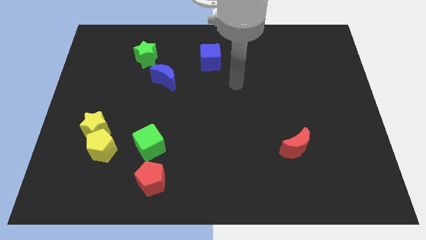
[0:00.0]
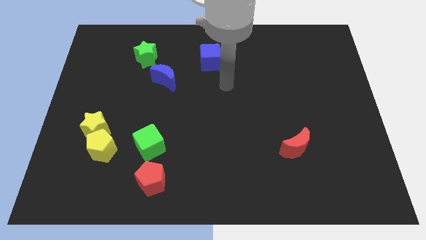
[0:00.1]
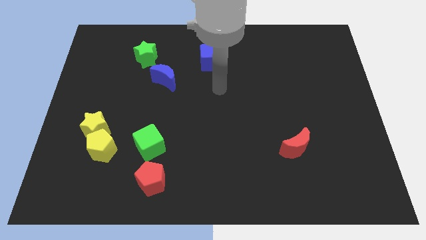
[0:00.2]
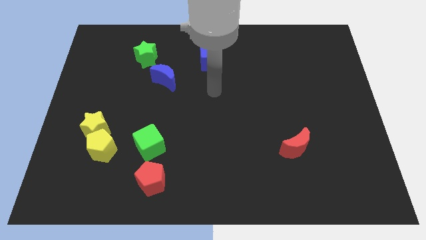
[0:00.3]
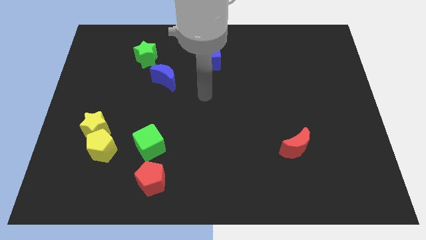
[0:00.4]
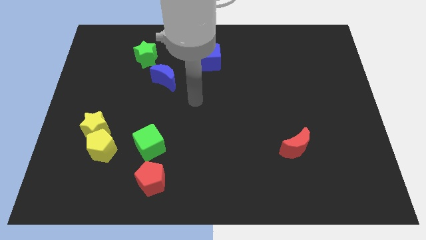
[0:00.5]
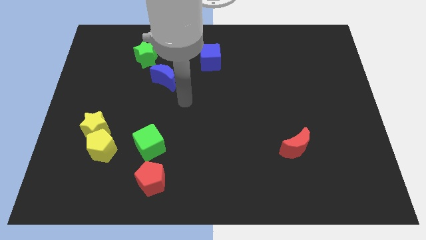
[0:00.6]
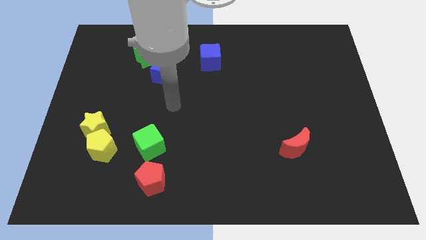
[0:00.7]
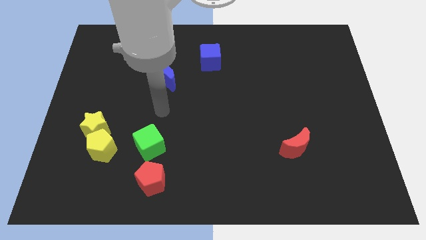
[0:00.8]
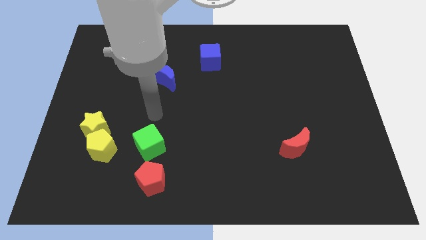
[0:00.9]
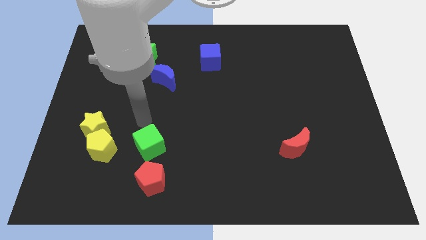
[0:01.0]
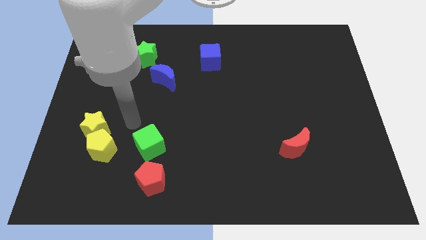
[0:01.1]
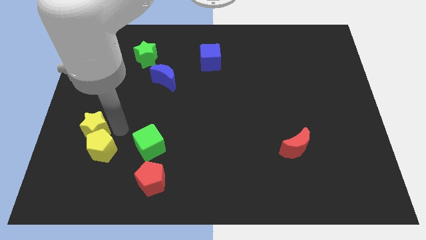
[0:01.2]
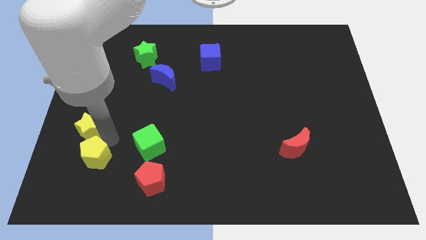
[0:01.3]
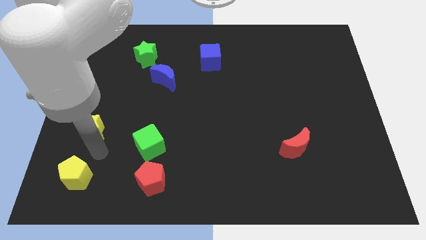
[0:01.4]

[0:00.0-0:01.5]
pull the yellow star apart from the yellow pentagon

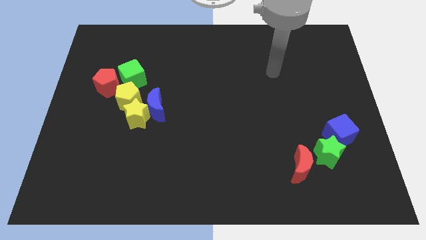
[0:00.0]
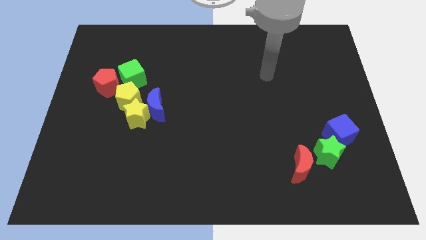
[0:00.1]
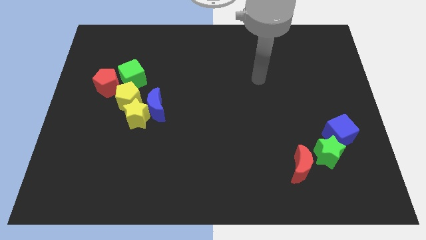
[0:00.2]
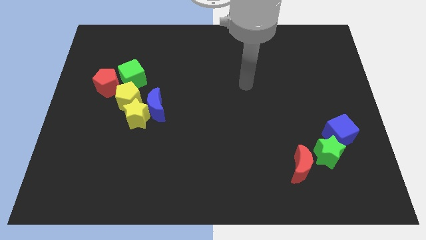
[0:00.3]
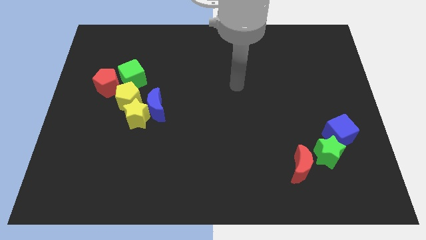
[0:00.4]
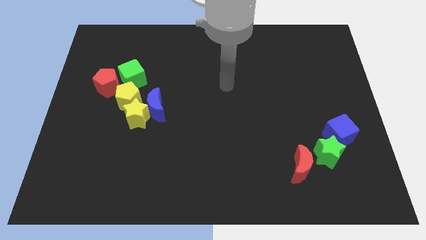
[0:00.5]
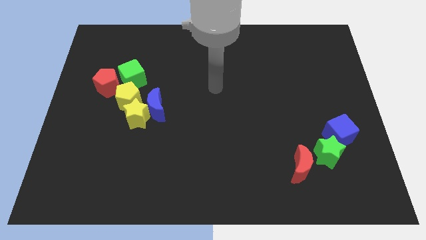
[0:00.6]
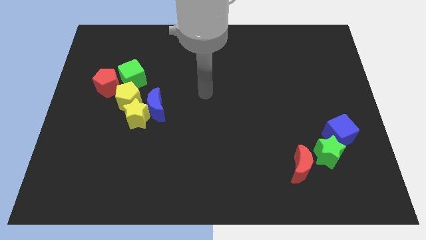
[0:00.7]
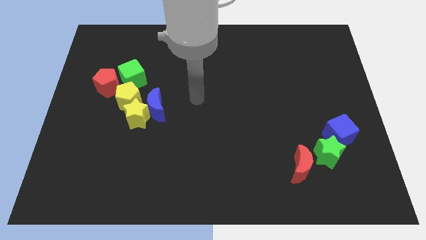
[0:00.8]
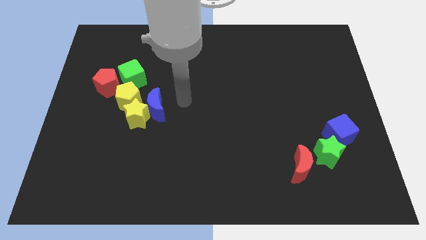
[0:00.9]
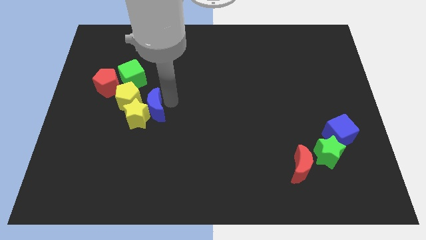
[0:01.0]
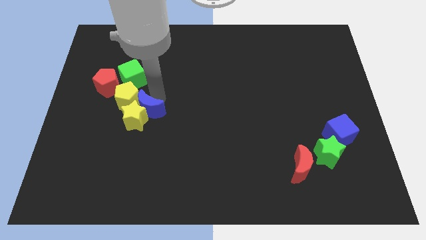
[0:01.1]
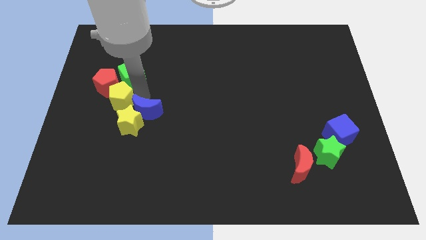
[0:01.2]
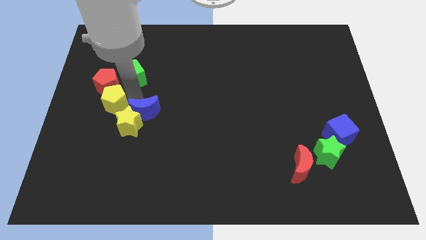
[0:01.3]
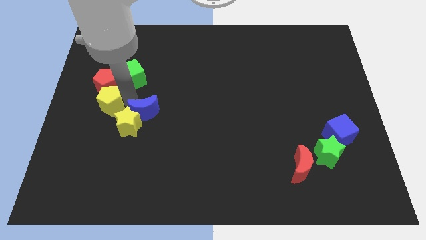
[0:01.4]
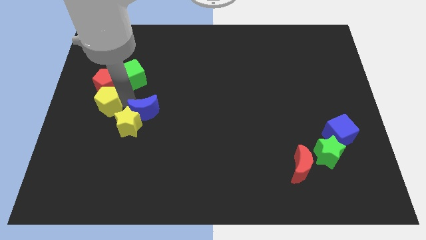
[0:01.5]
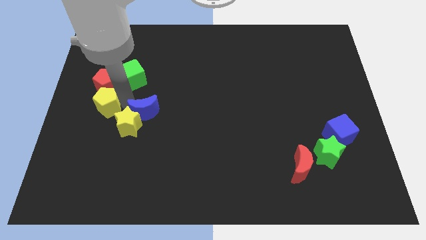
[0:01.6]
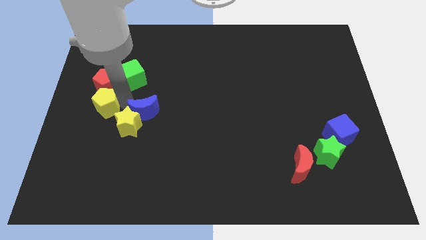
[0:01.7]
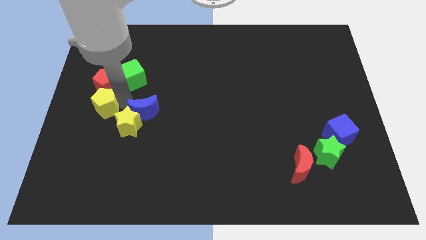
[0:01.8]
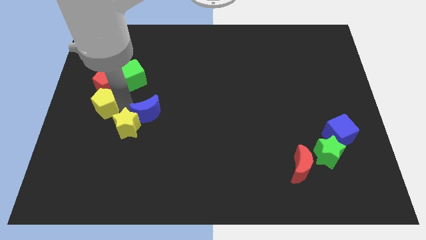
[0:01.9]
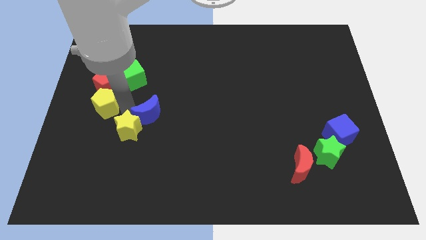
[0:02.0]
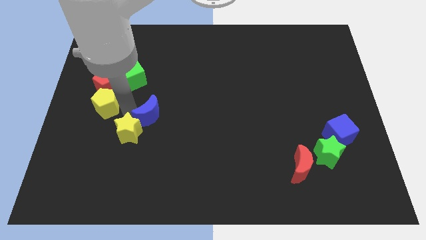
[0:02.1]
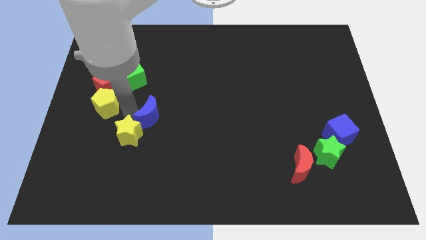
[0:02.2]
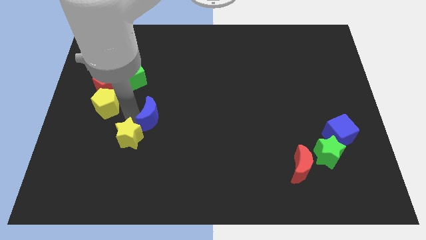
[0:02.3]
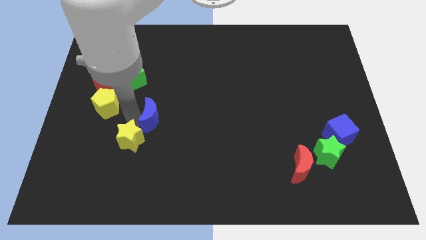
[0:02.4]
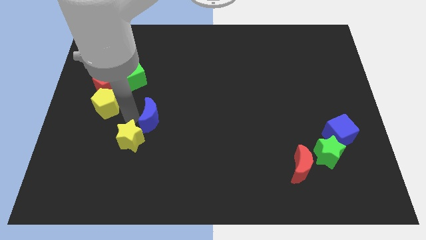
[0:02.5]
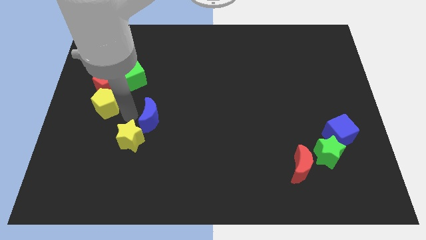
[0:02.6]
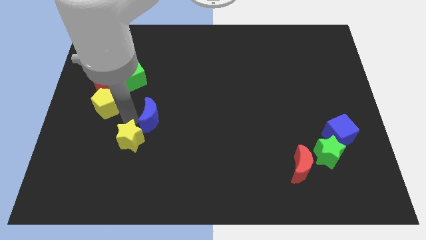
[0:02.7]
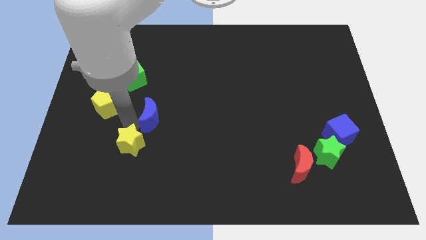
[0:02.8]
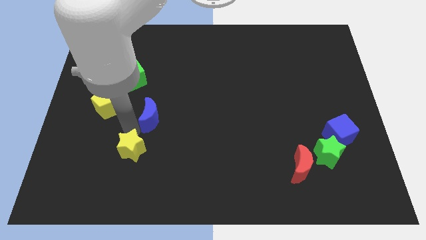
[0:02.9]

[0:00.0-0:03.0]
move the yellow star away from the blue moon and yellow pentagon

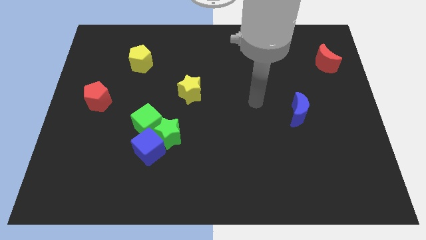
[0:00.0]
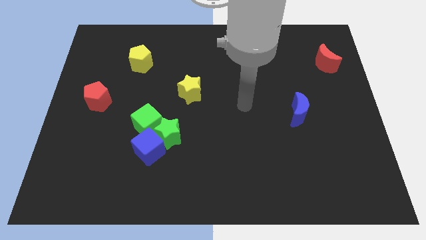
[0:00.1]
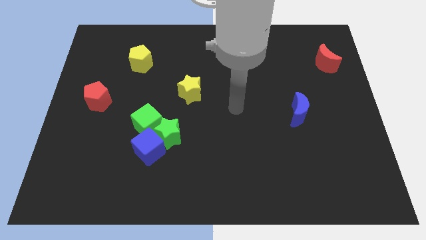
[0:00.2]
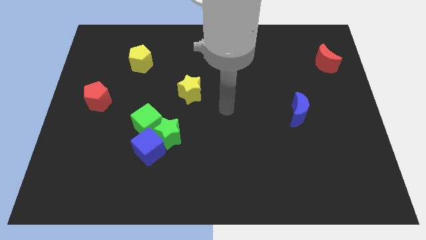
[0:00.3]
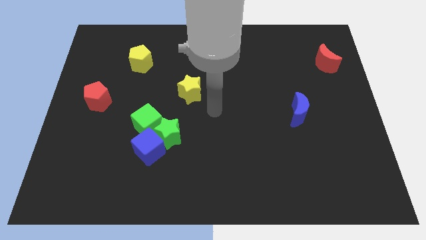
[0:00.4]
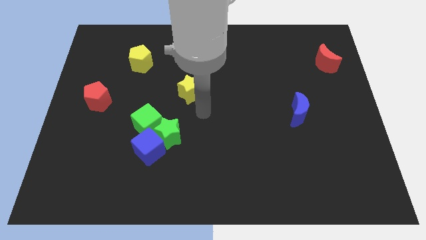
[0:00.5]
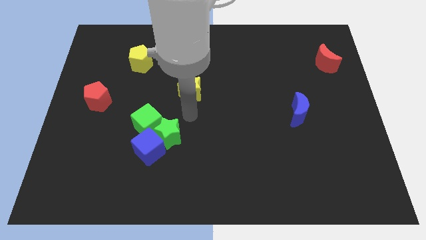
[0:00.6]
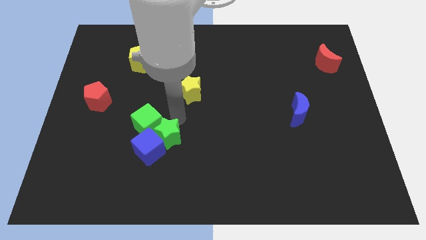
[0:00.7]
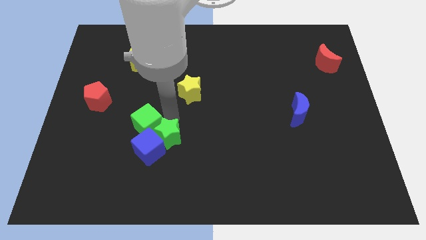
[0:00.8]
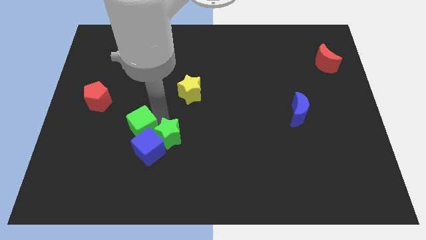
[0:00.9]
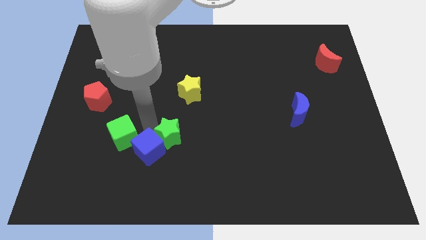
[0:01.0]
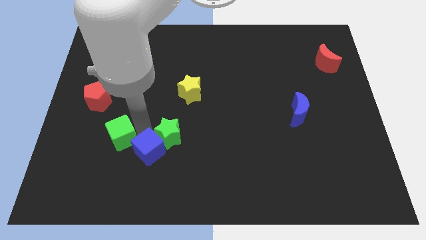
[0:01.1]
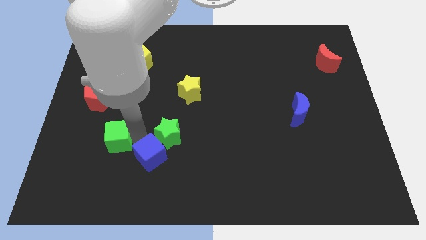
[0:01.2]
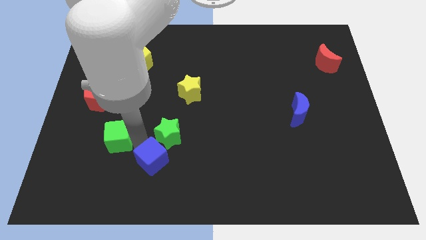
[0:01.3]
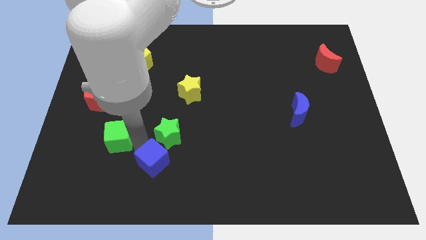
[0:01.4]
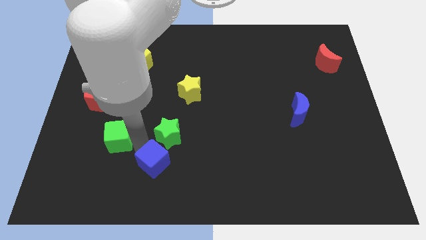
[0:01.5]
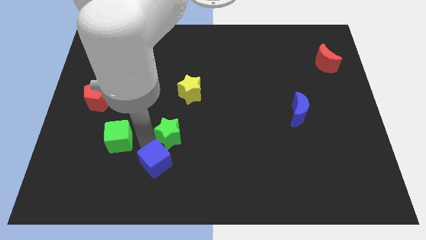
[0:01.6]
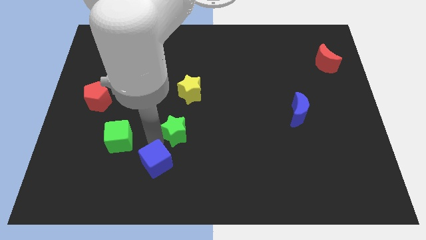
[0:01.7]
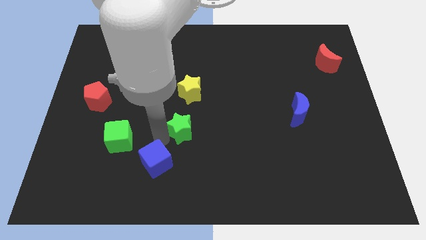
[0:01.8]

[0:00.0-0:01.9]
move the green star away from the blue cube and green cube

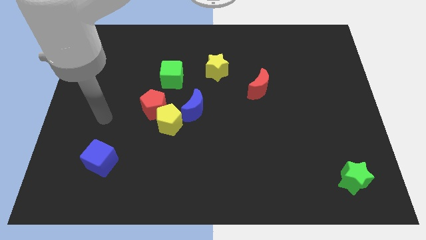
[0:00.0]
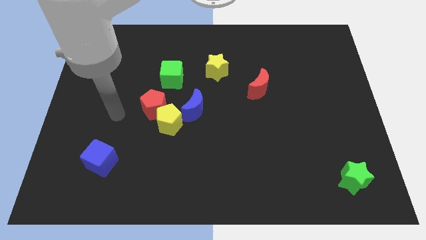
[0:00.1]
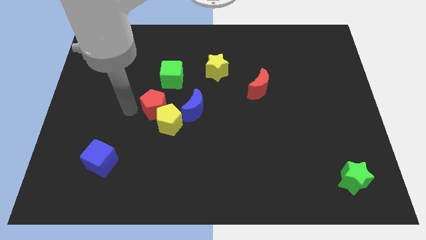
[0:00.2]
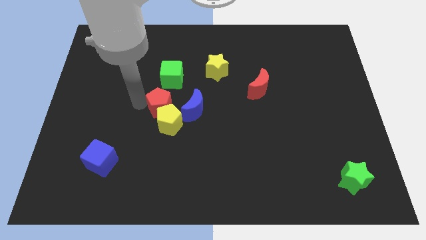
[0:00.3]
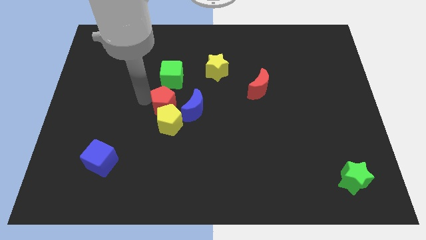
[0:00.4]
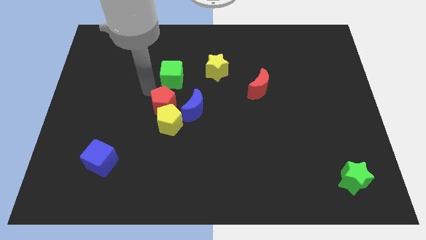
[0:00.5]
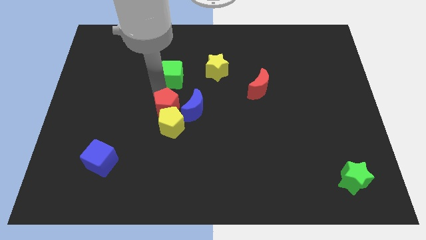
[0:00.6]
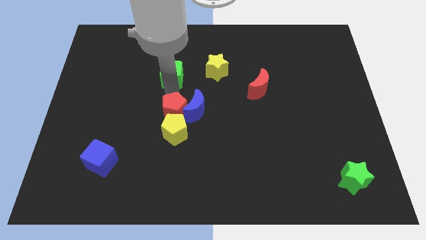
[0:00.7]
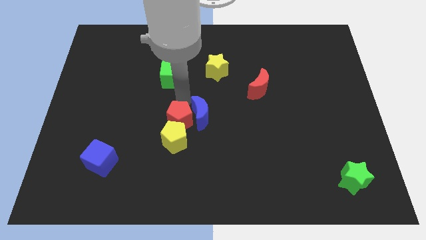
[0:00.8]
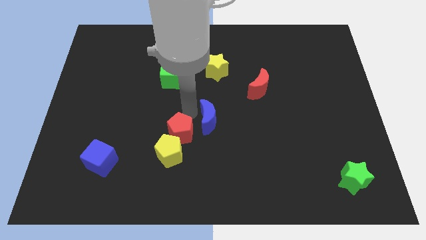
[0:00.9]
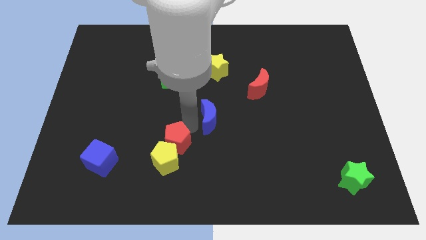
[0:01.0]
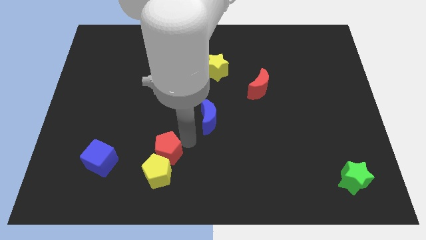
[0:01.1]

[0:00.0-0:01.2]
separate the yellow pentagon from the red pentagon and blue moon

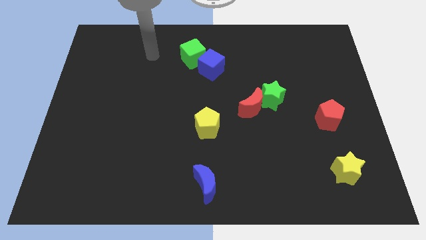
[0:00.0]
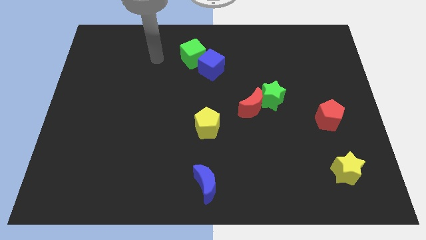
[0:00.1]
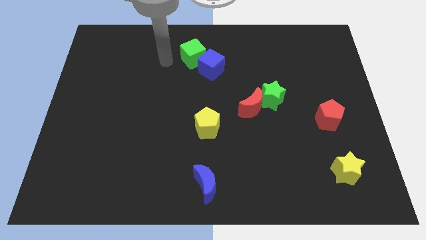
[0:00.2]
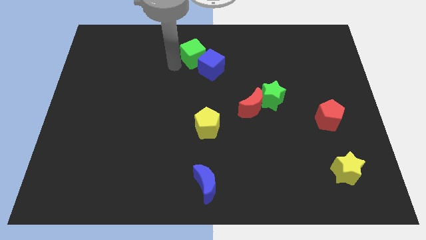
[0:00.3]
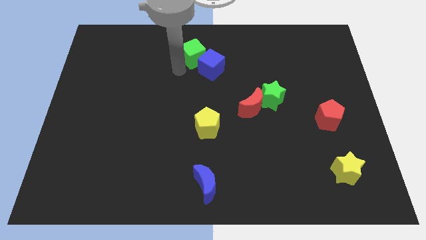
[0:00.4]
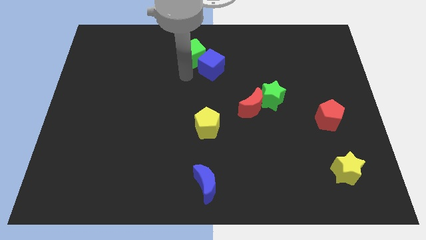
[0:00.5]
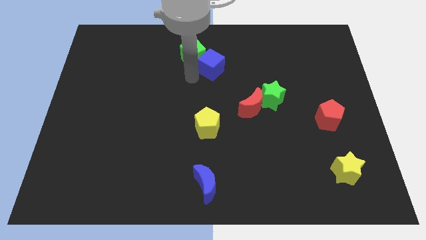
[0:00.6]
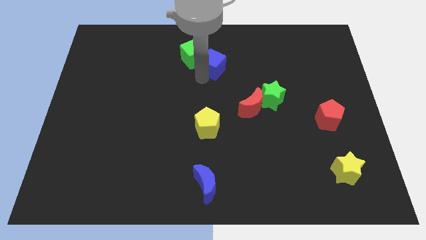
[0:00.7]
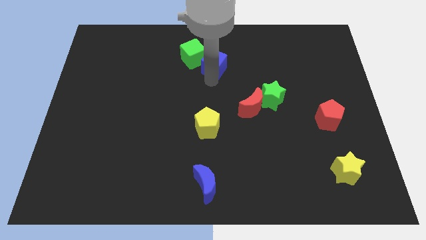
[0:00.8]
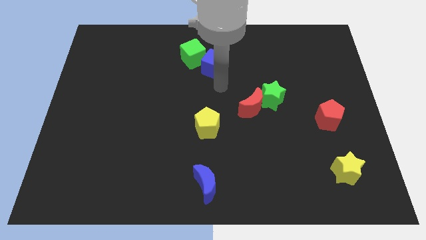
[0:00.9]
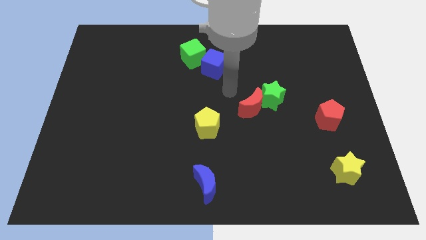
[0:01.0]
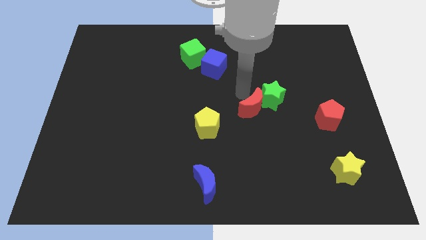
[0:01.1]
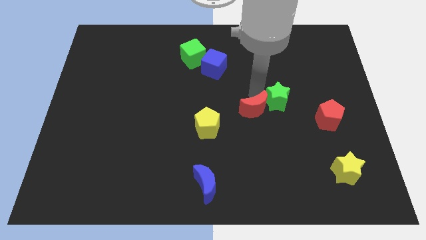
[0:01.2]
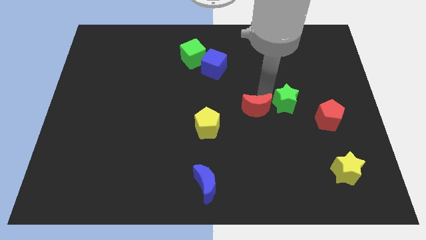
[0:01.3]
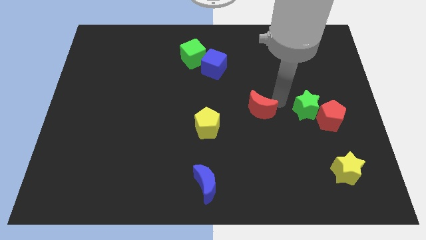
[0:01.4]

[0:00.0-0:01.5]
move the red moon away from the green star

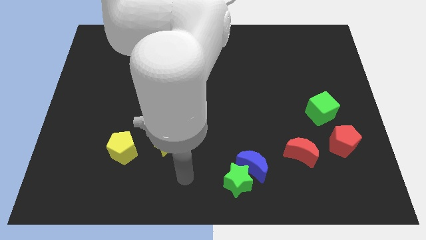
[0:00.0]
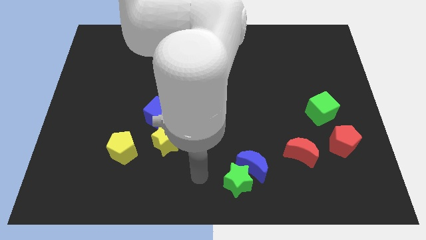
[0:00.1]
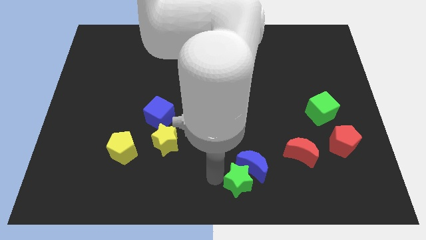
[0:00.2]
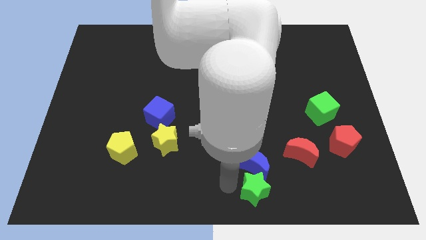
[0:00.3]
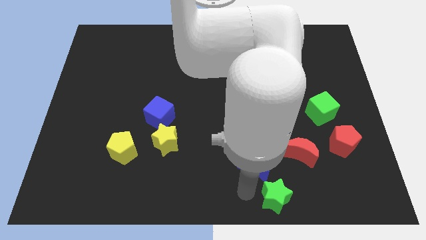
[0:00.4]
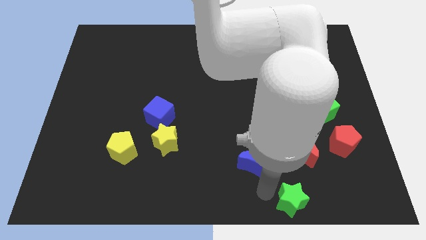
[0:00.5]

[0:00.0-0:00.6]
pull the blue moon apart from the green star
